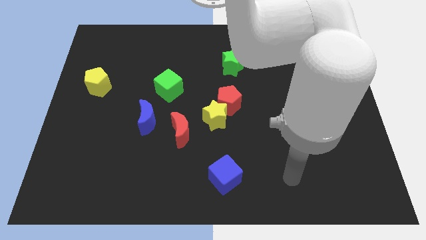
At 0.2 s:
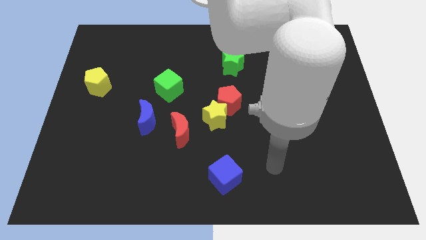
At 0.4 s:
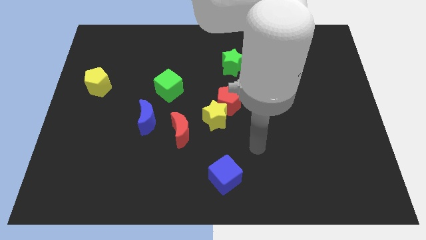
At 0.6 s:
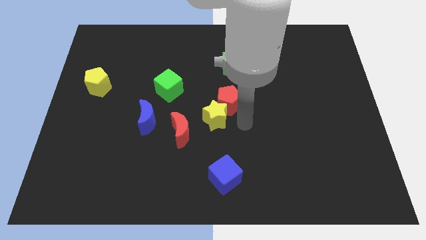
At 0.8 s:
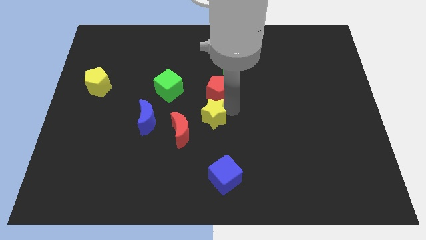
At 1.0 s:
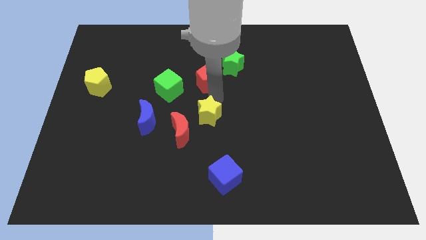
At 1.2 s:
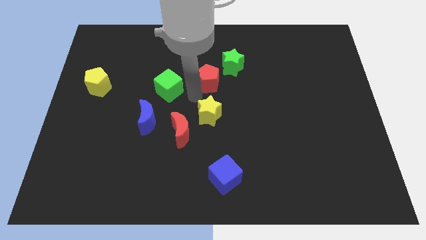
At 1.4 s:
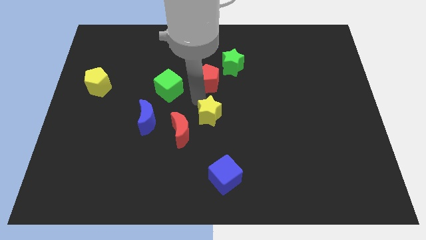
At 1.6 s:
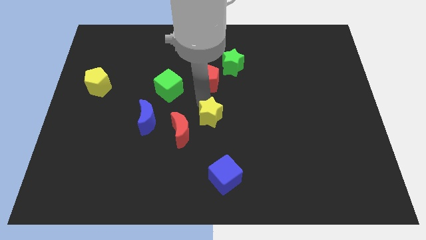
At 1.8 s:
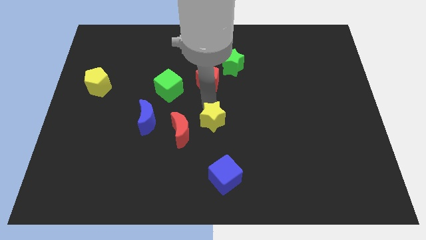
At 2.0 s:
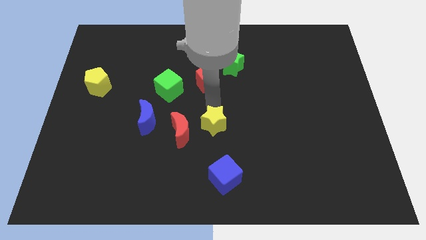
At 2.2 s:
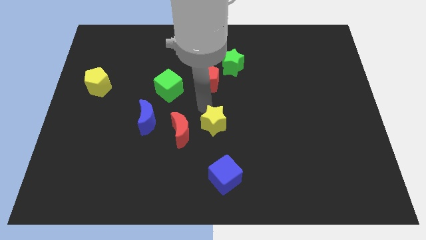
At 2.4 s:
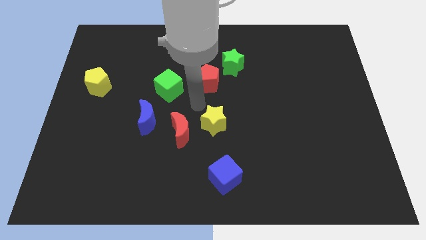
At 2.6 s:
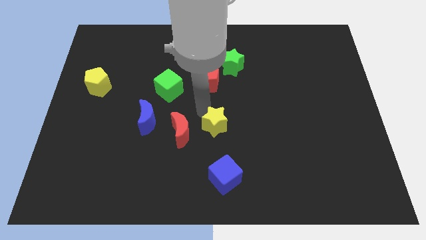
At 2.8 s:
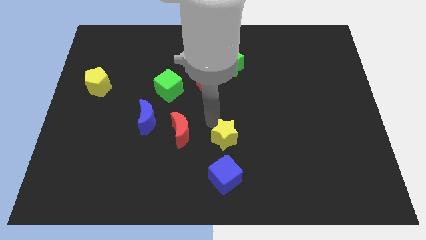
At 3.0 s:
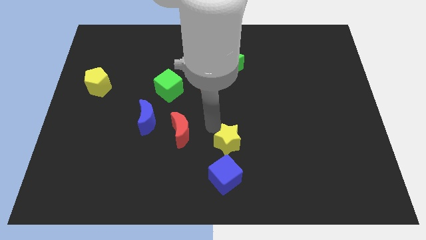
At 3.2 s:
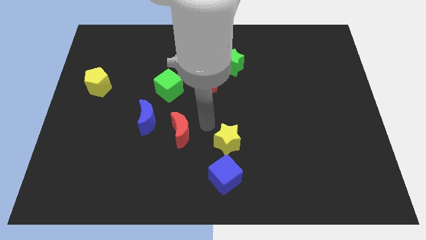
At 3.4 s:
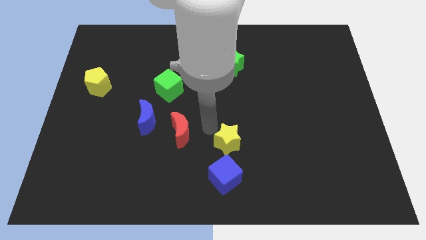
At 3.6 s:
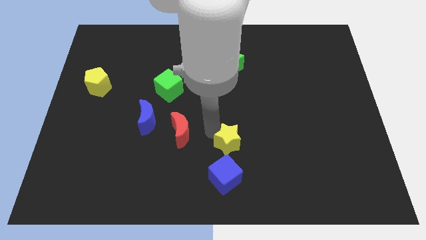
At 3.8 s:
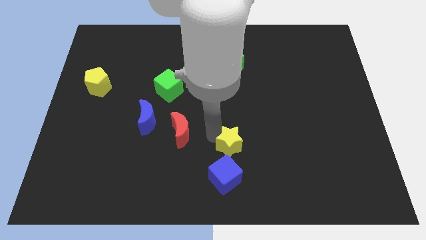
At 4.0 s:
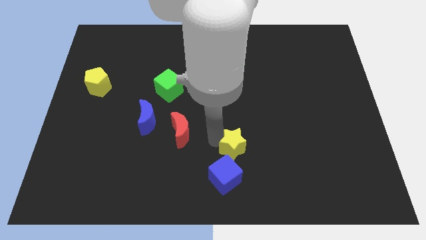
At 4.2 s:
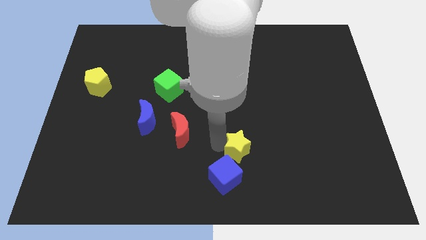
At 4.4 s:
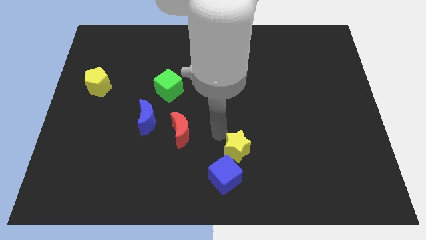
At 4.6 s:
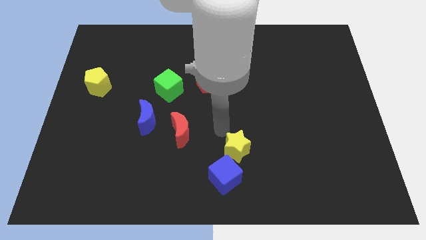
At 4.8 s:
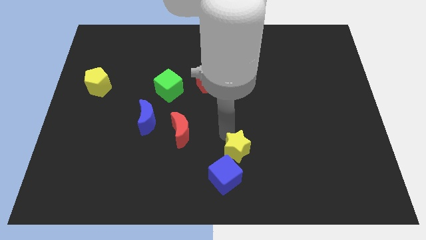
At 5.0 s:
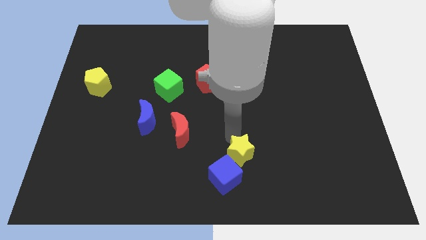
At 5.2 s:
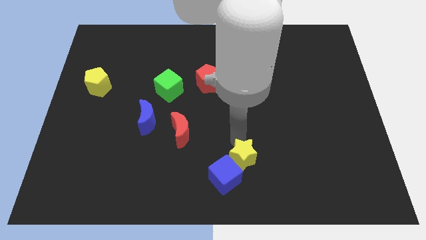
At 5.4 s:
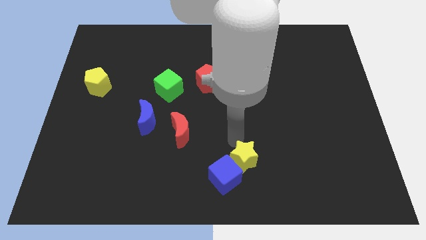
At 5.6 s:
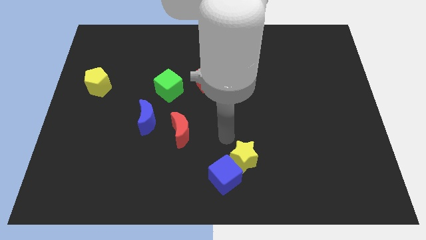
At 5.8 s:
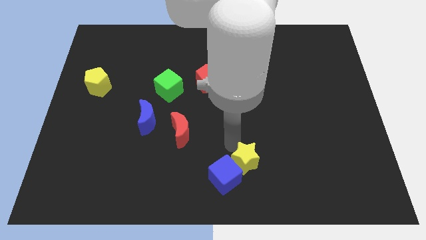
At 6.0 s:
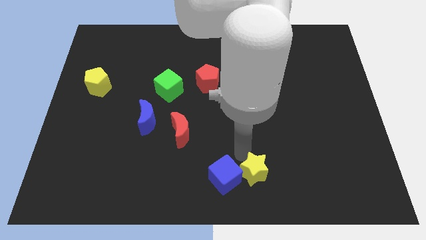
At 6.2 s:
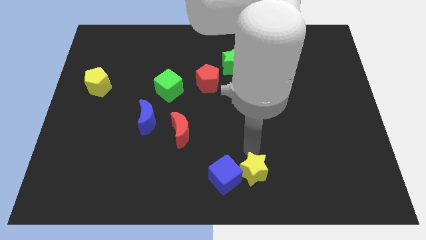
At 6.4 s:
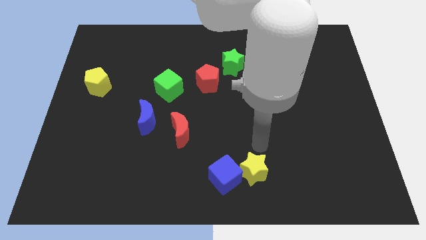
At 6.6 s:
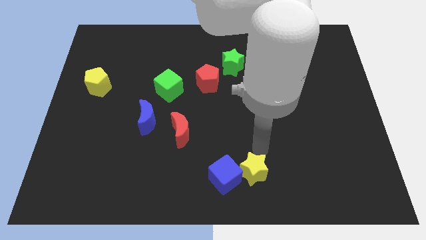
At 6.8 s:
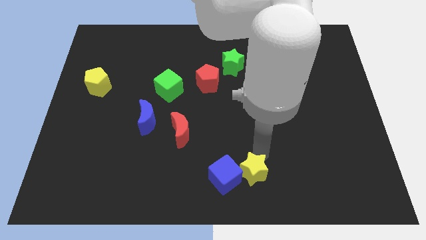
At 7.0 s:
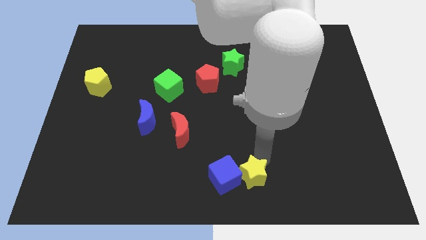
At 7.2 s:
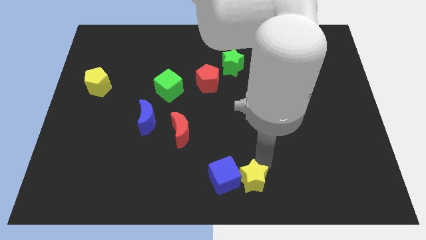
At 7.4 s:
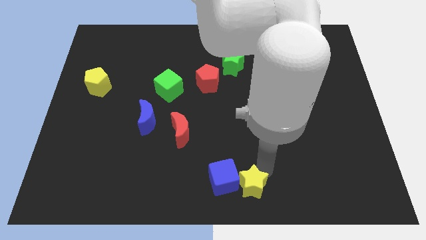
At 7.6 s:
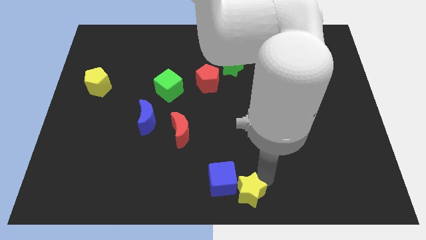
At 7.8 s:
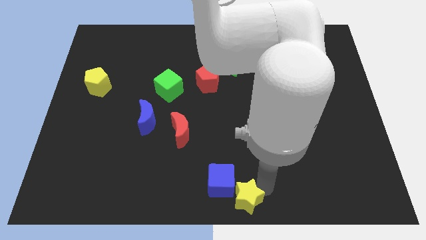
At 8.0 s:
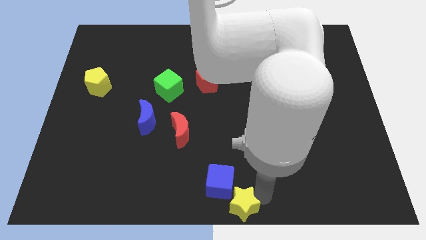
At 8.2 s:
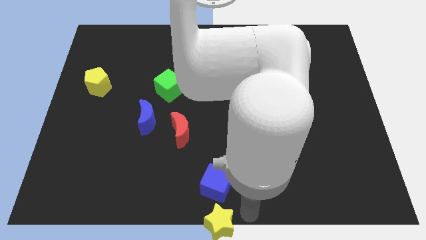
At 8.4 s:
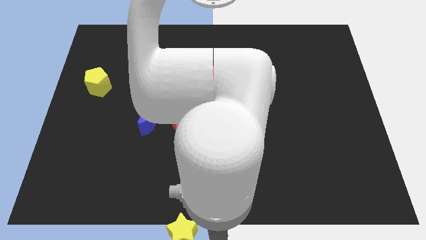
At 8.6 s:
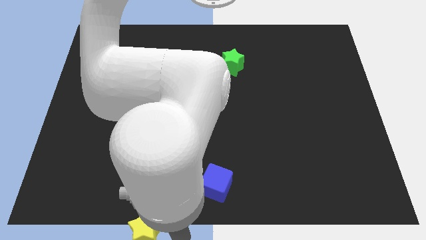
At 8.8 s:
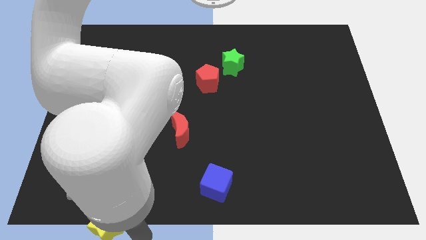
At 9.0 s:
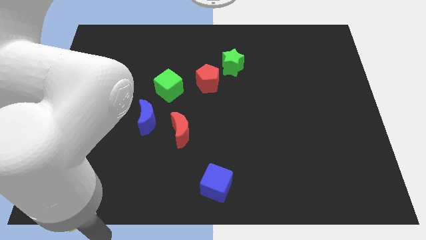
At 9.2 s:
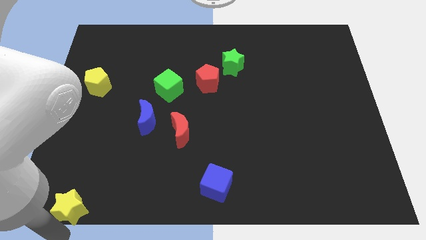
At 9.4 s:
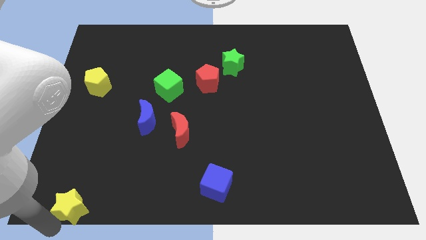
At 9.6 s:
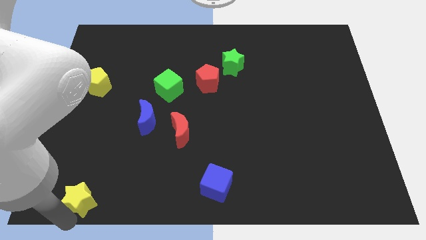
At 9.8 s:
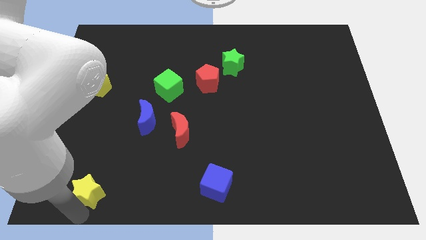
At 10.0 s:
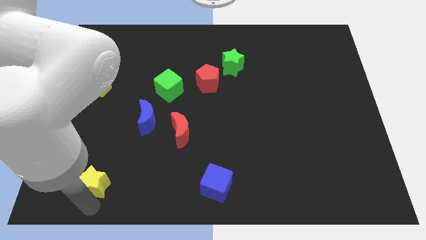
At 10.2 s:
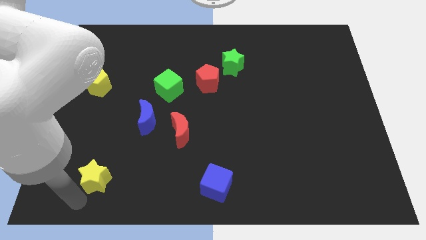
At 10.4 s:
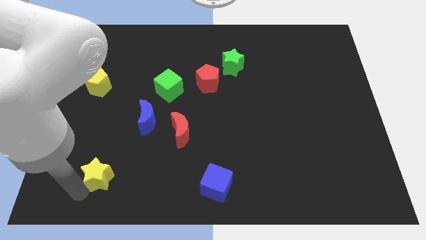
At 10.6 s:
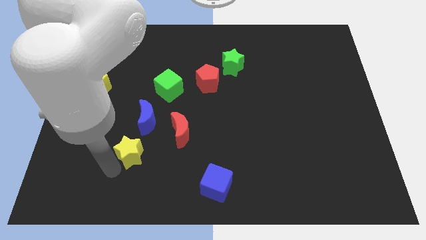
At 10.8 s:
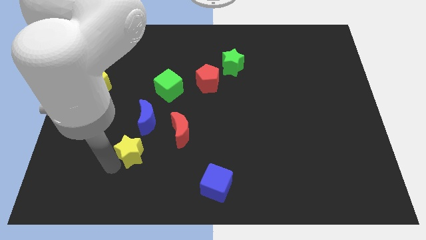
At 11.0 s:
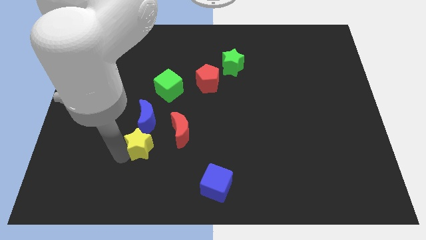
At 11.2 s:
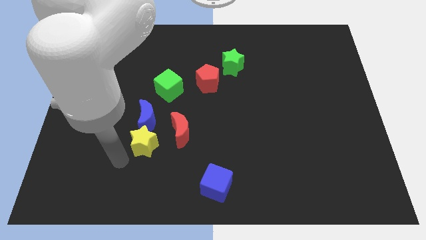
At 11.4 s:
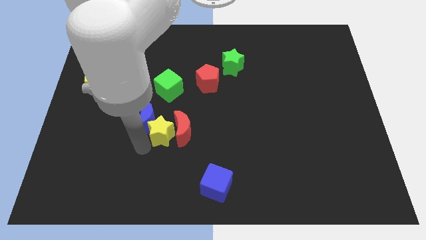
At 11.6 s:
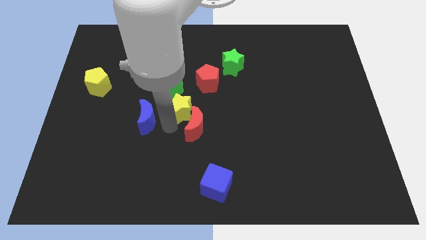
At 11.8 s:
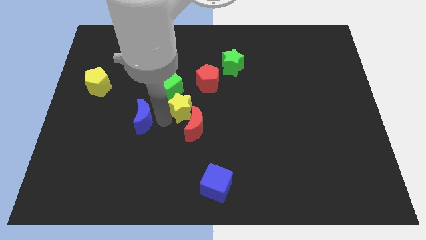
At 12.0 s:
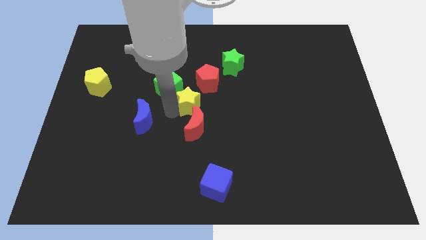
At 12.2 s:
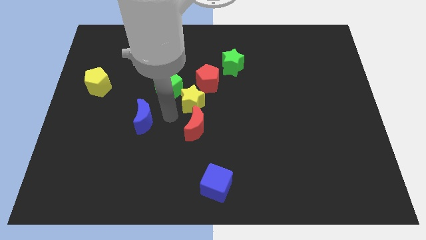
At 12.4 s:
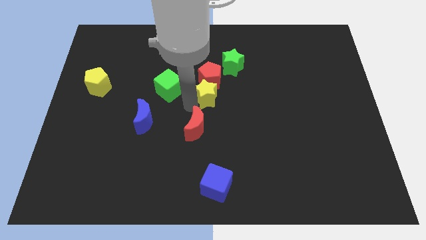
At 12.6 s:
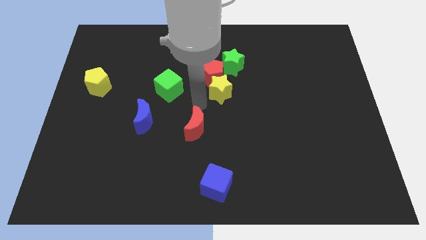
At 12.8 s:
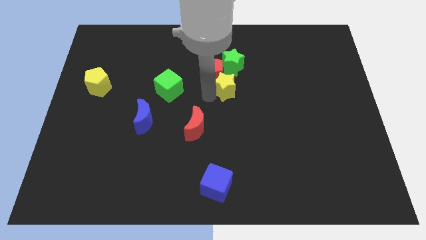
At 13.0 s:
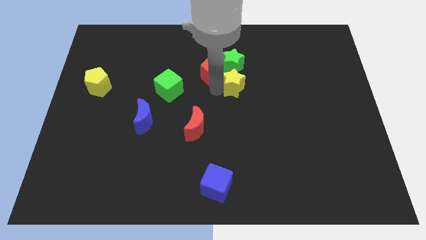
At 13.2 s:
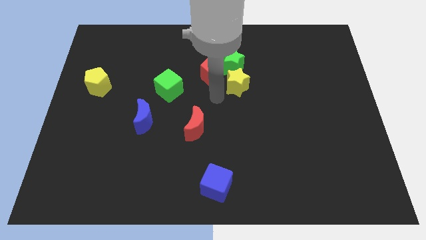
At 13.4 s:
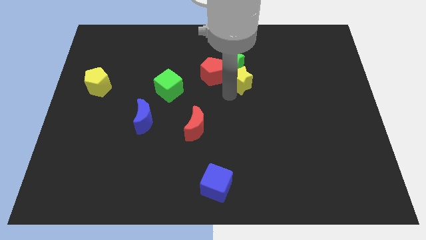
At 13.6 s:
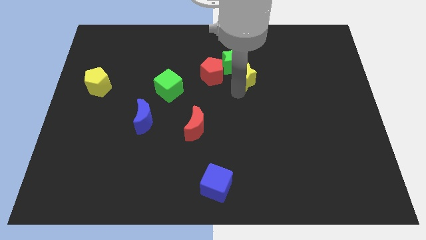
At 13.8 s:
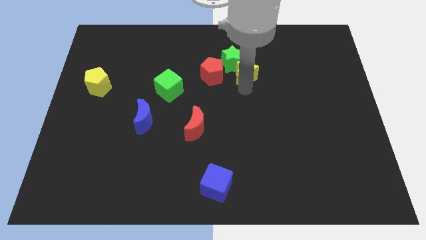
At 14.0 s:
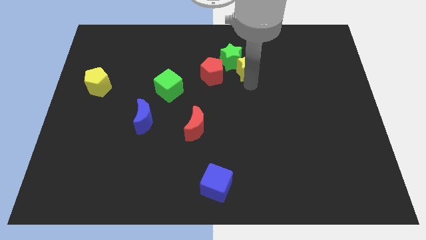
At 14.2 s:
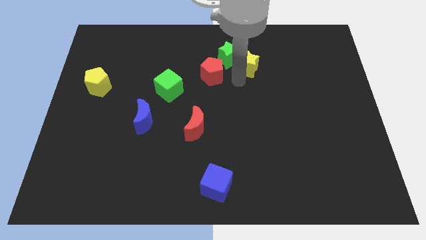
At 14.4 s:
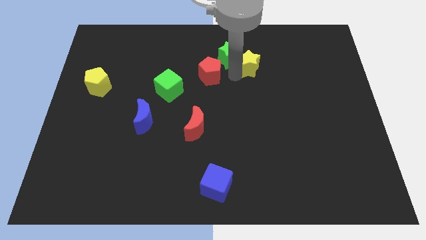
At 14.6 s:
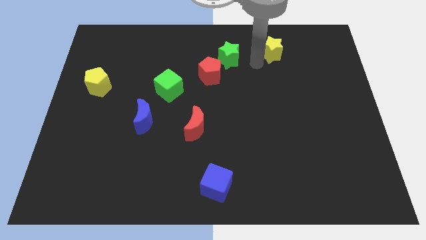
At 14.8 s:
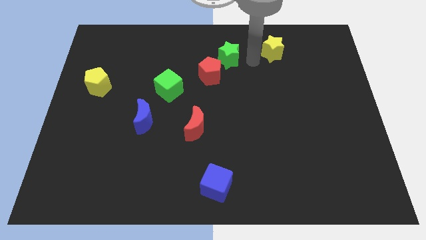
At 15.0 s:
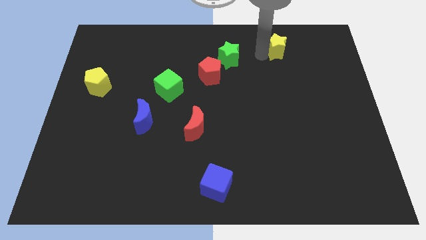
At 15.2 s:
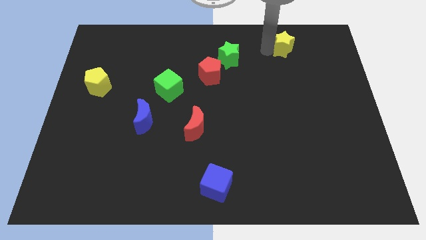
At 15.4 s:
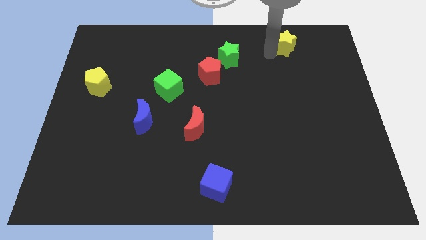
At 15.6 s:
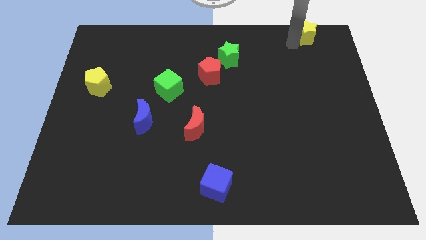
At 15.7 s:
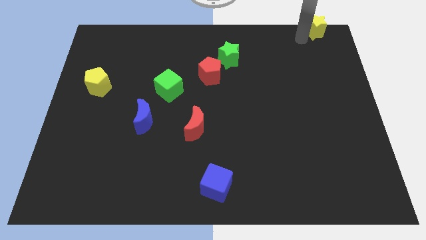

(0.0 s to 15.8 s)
slide the yellow star to the top right of the board
